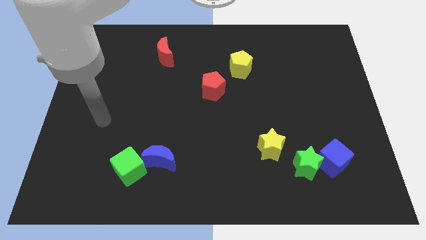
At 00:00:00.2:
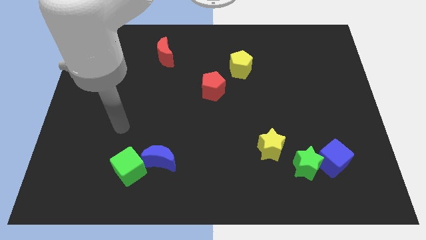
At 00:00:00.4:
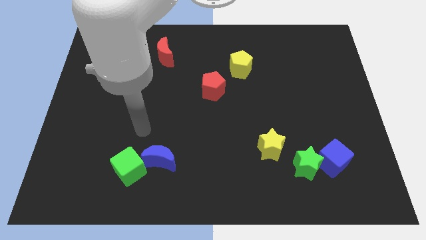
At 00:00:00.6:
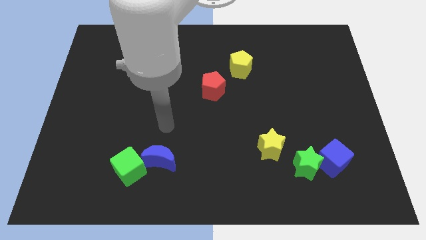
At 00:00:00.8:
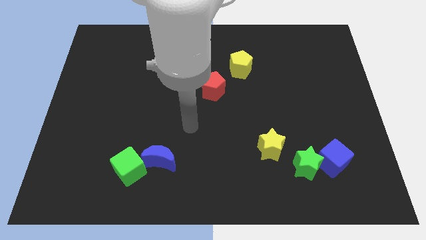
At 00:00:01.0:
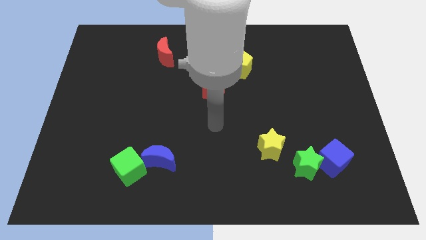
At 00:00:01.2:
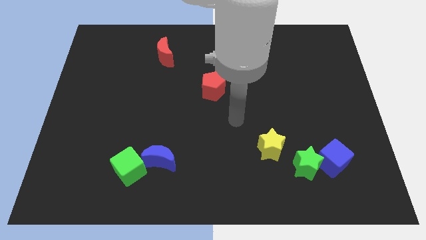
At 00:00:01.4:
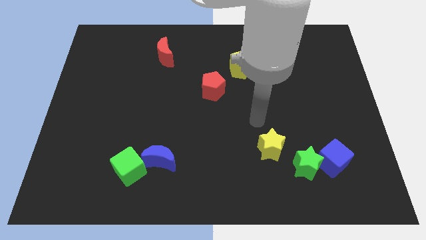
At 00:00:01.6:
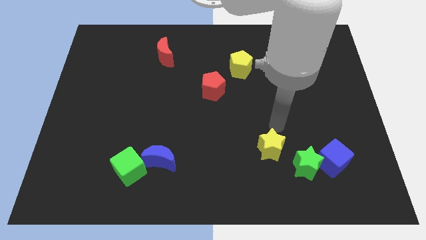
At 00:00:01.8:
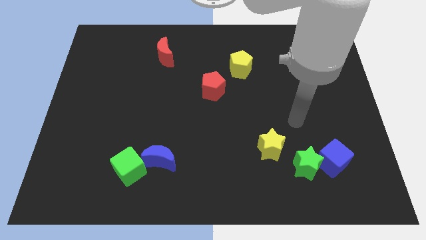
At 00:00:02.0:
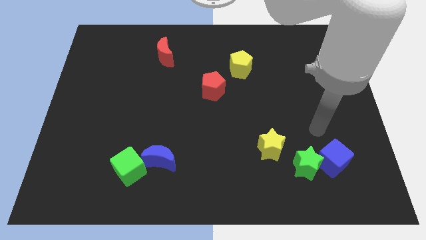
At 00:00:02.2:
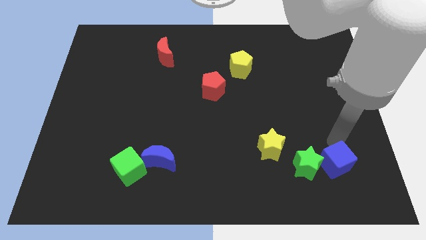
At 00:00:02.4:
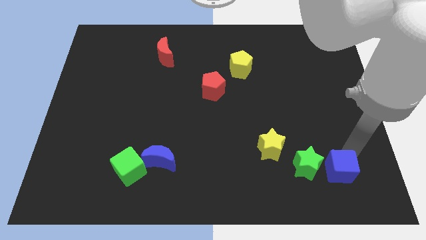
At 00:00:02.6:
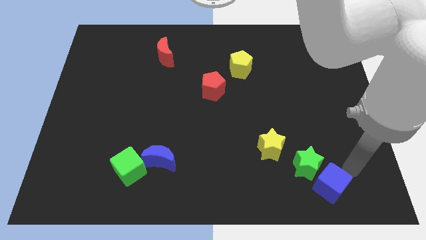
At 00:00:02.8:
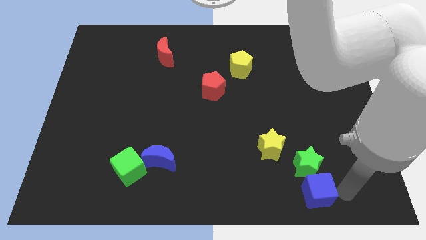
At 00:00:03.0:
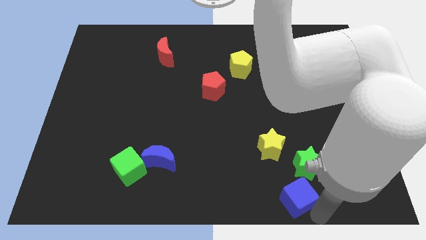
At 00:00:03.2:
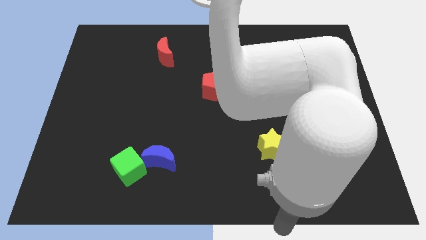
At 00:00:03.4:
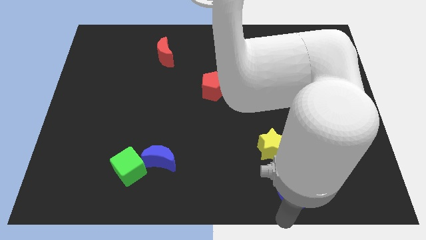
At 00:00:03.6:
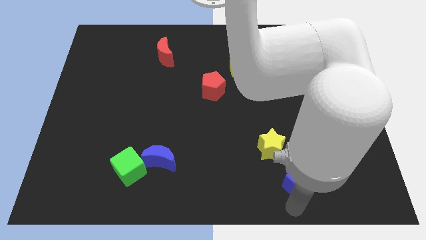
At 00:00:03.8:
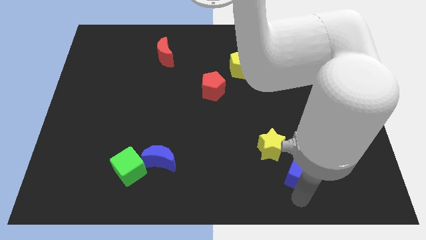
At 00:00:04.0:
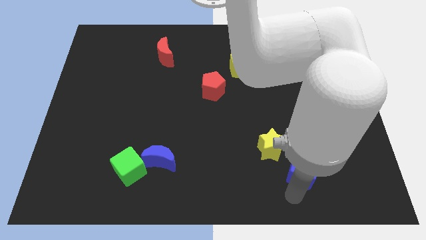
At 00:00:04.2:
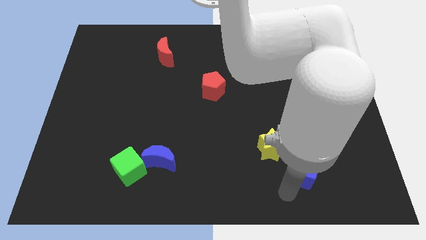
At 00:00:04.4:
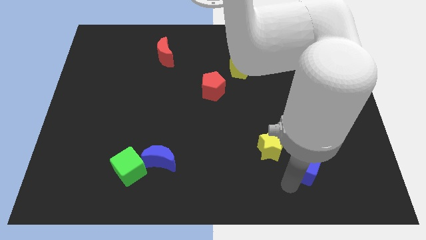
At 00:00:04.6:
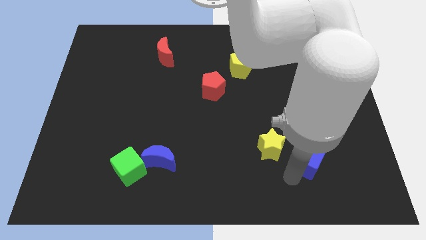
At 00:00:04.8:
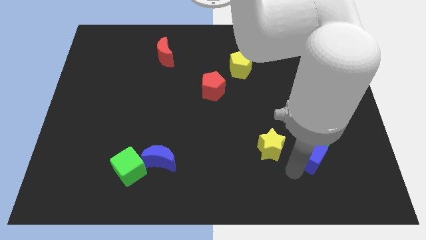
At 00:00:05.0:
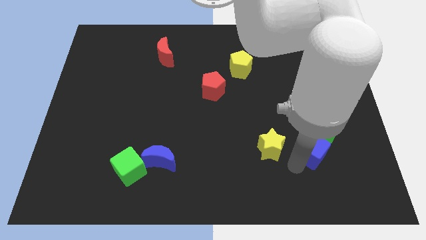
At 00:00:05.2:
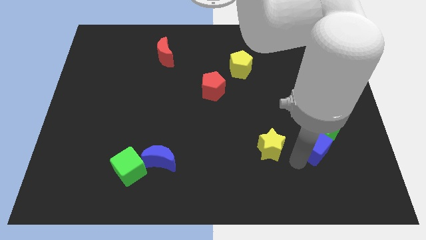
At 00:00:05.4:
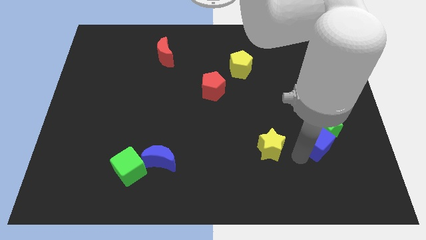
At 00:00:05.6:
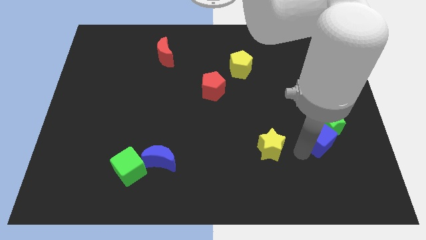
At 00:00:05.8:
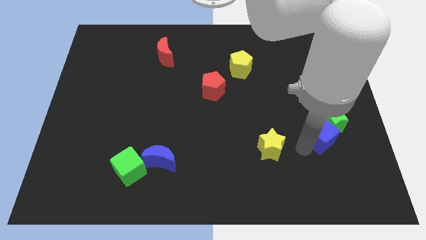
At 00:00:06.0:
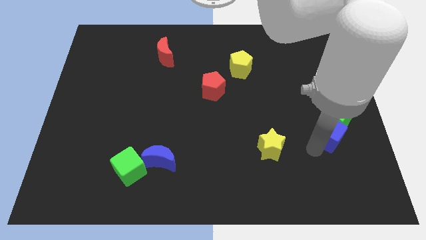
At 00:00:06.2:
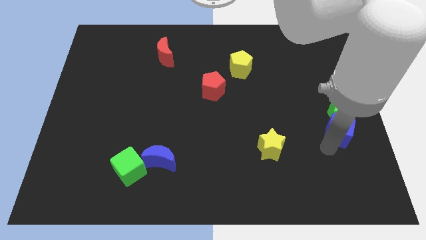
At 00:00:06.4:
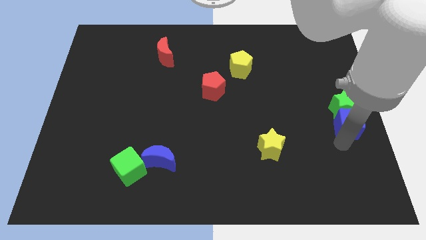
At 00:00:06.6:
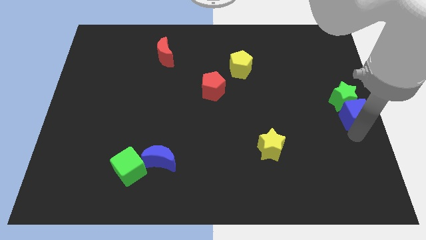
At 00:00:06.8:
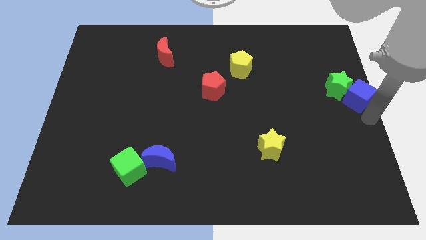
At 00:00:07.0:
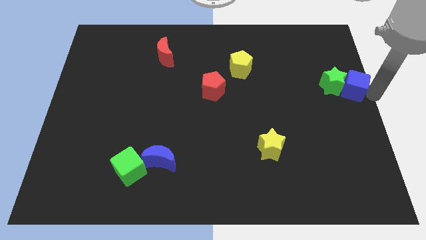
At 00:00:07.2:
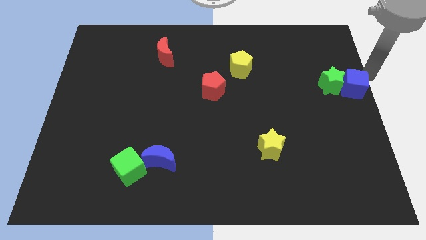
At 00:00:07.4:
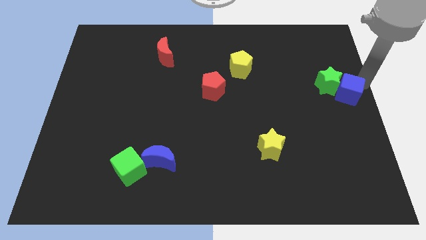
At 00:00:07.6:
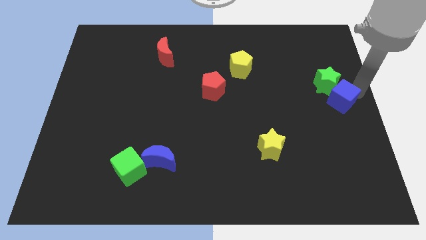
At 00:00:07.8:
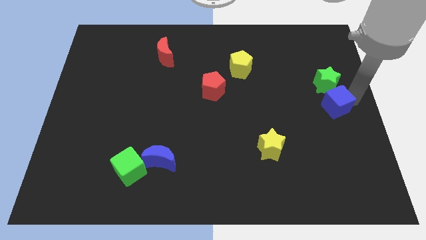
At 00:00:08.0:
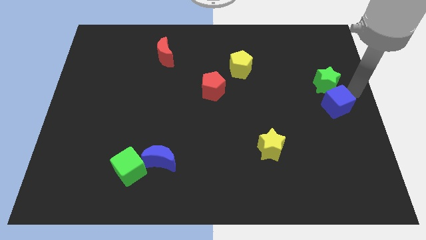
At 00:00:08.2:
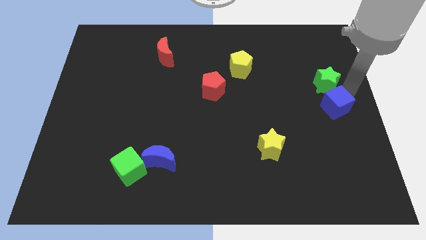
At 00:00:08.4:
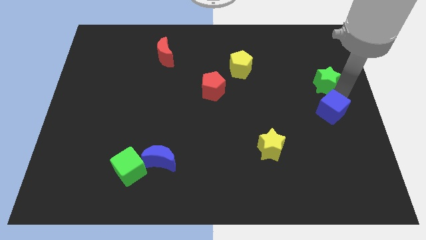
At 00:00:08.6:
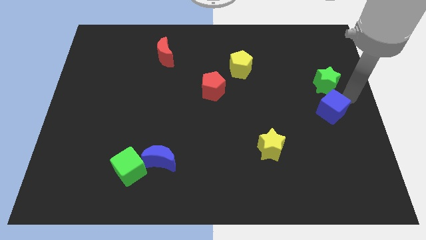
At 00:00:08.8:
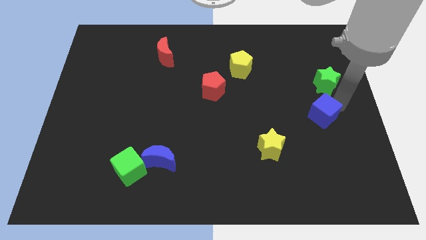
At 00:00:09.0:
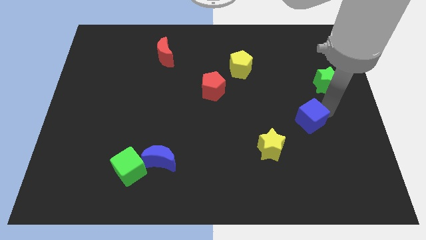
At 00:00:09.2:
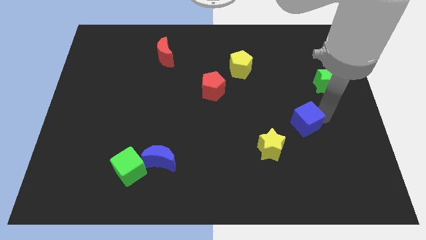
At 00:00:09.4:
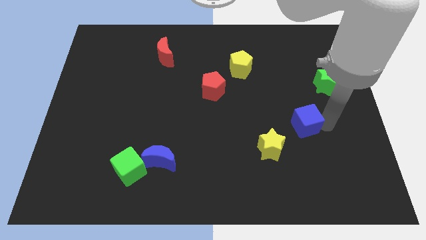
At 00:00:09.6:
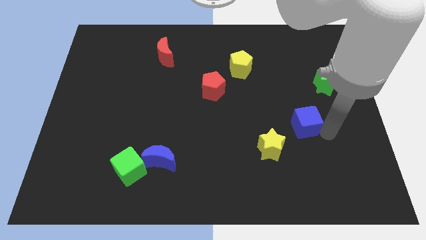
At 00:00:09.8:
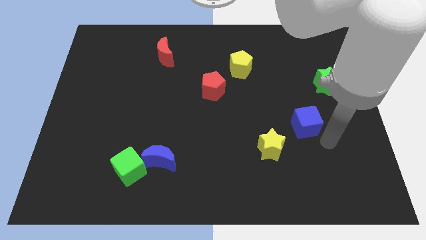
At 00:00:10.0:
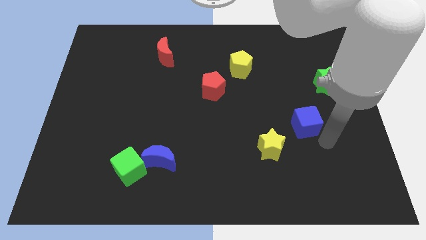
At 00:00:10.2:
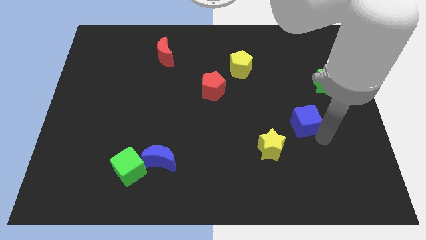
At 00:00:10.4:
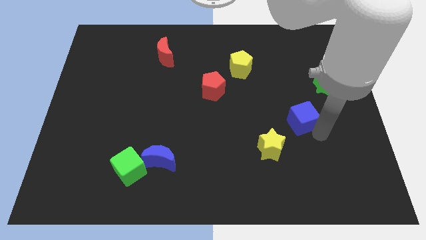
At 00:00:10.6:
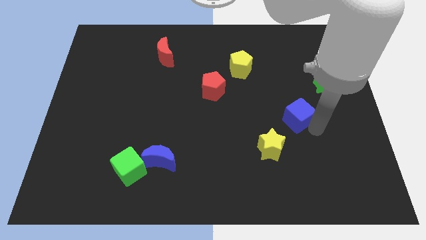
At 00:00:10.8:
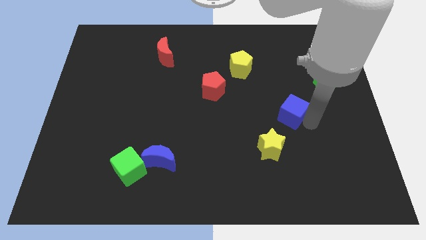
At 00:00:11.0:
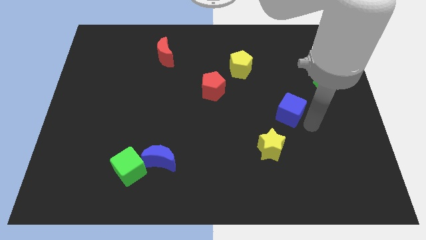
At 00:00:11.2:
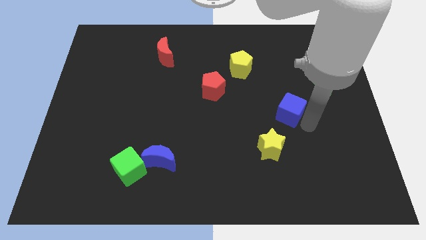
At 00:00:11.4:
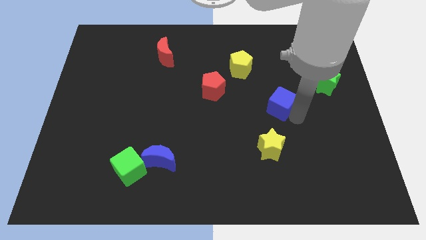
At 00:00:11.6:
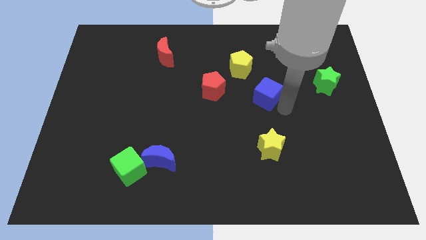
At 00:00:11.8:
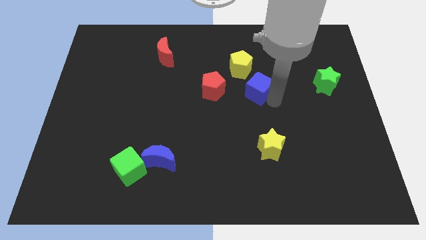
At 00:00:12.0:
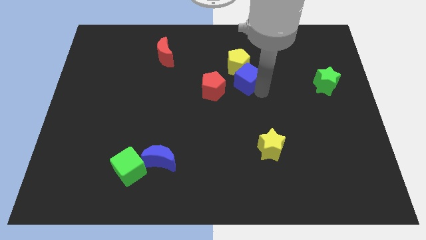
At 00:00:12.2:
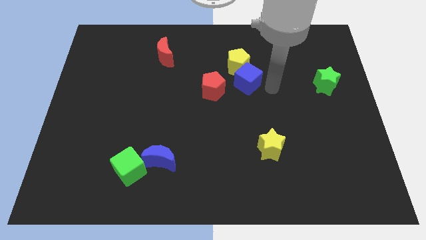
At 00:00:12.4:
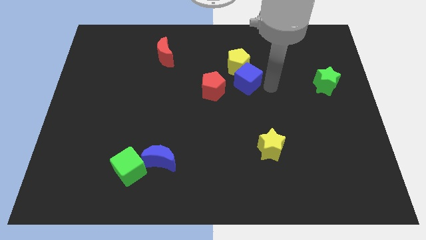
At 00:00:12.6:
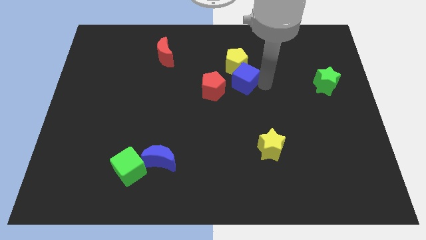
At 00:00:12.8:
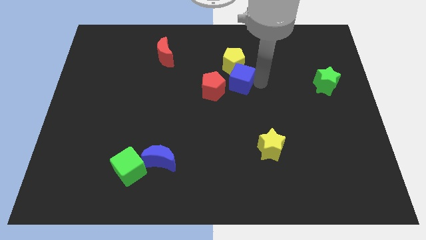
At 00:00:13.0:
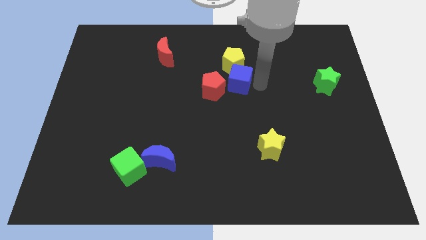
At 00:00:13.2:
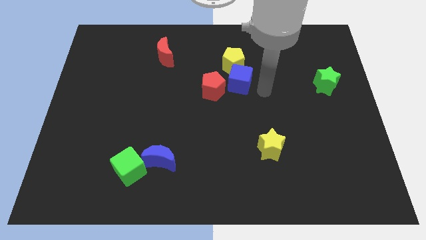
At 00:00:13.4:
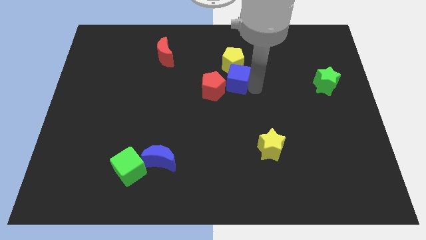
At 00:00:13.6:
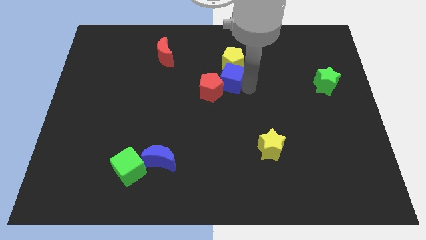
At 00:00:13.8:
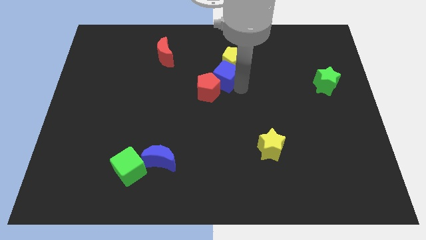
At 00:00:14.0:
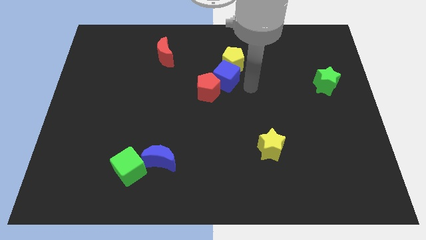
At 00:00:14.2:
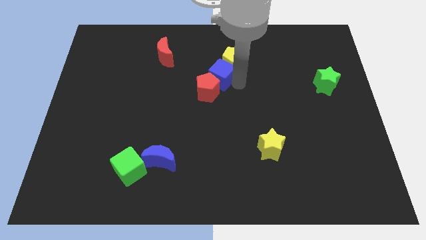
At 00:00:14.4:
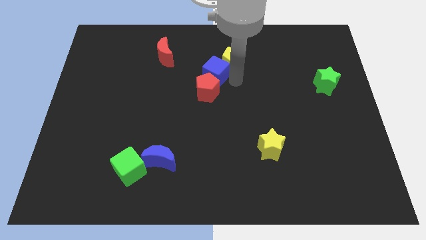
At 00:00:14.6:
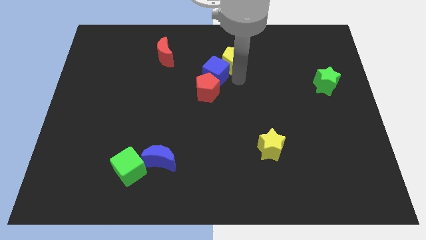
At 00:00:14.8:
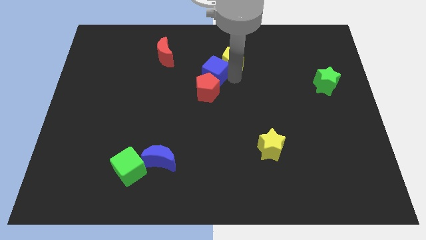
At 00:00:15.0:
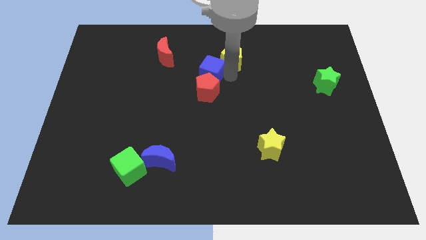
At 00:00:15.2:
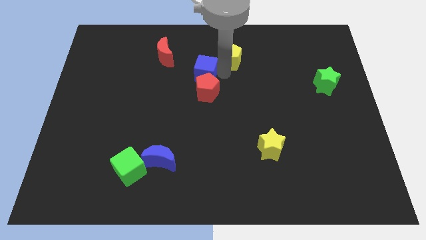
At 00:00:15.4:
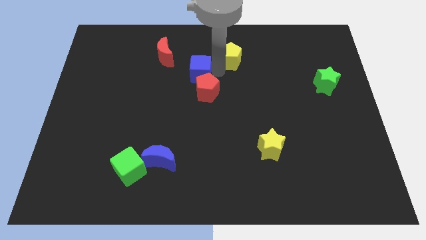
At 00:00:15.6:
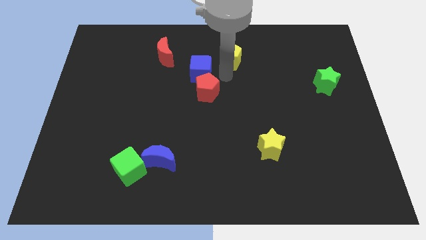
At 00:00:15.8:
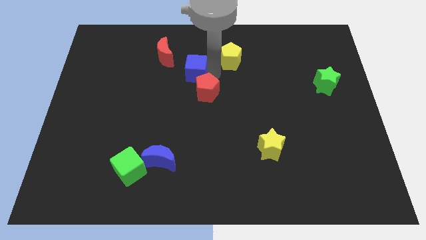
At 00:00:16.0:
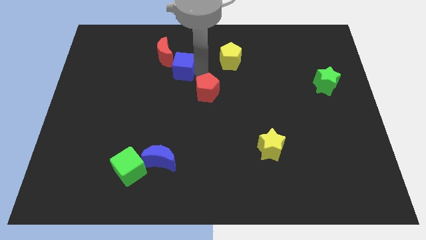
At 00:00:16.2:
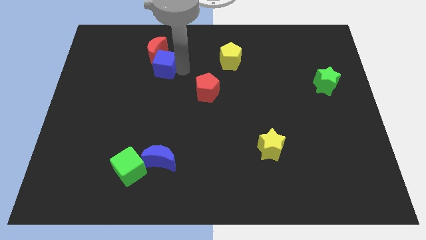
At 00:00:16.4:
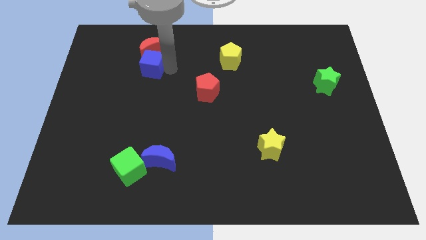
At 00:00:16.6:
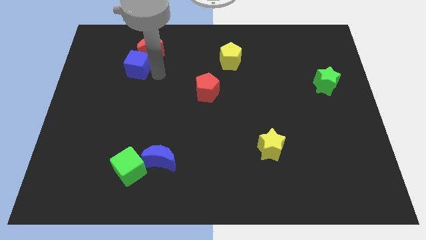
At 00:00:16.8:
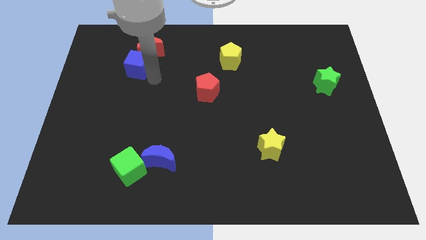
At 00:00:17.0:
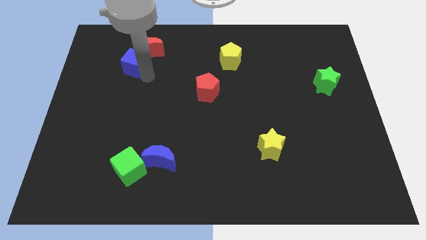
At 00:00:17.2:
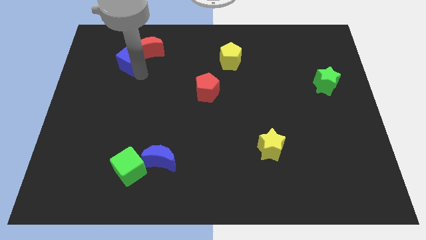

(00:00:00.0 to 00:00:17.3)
put the blue cube to the left side of the red moon
